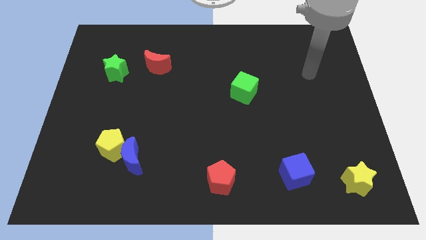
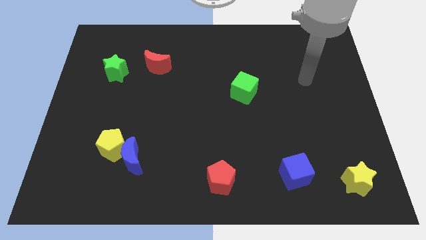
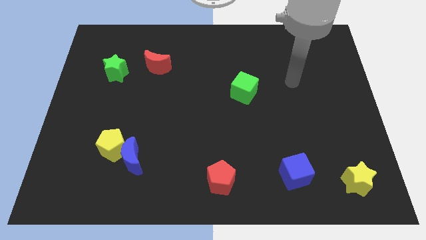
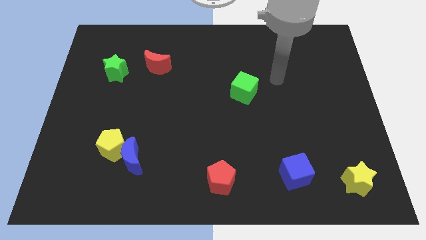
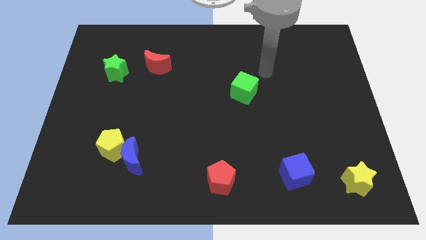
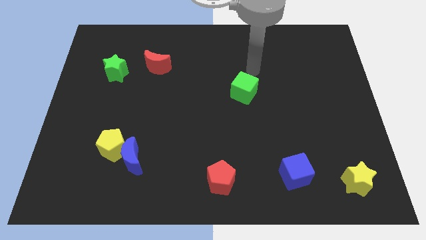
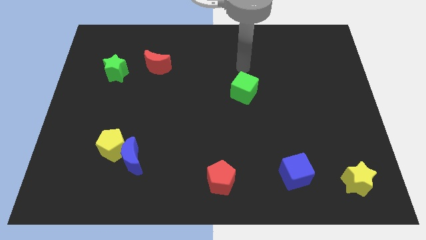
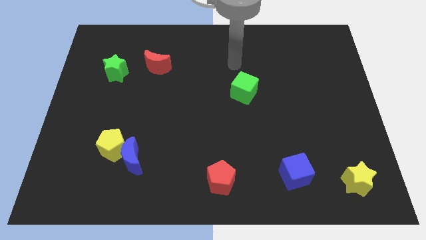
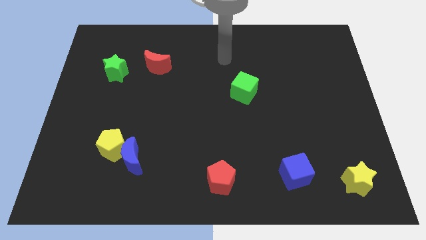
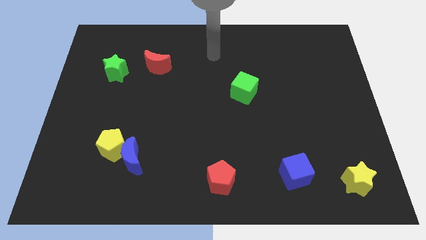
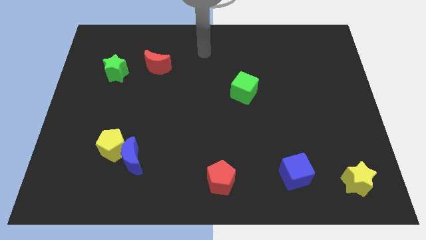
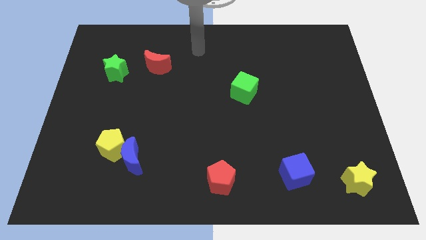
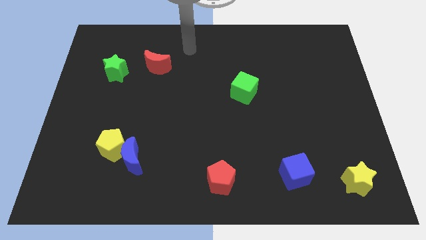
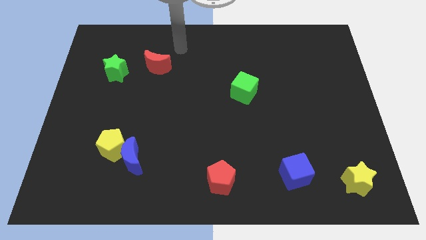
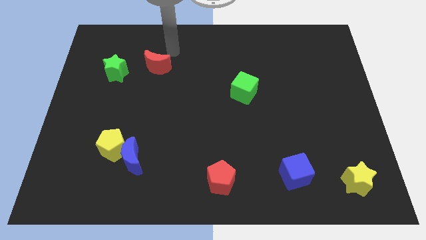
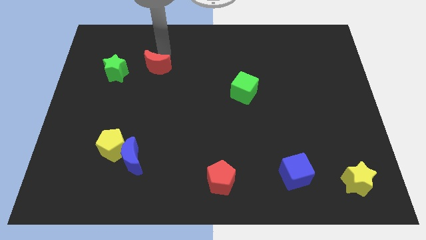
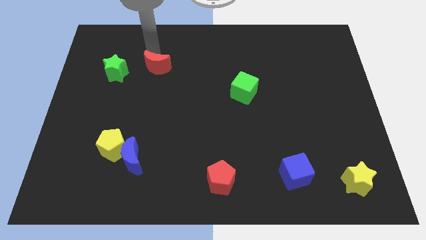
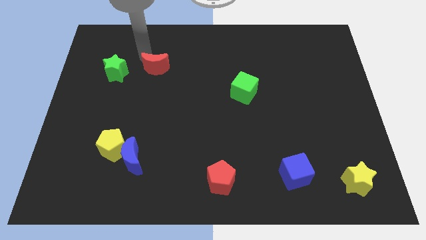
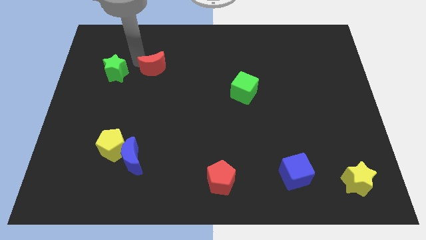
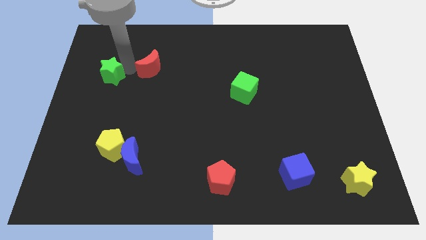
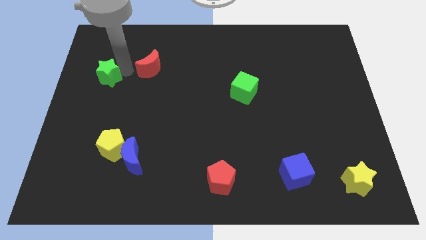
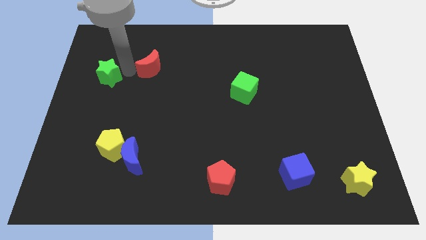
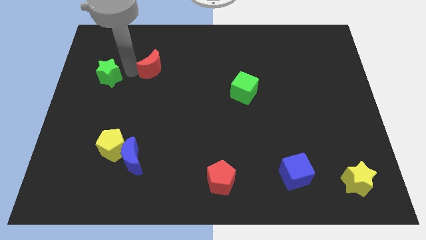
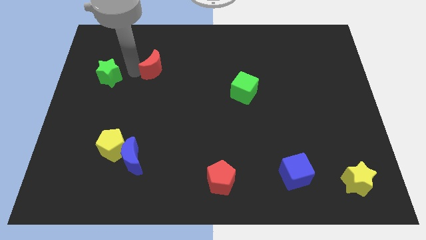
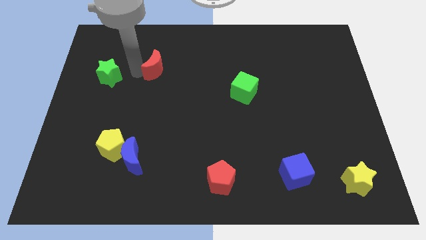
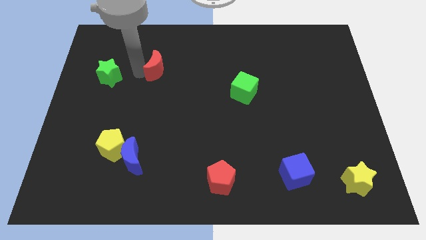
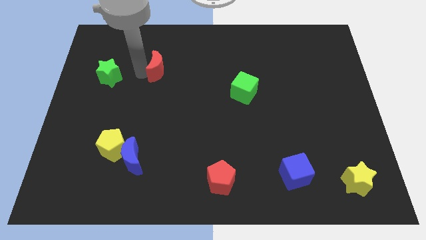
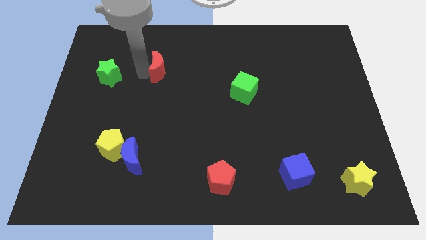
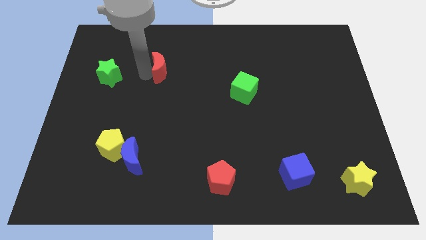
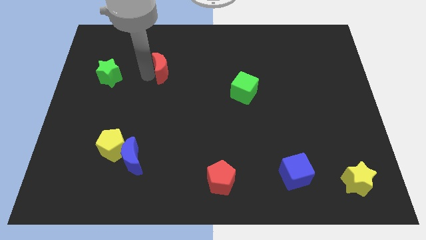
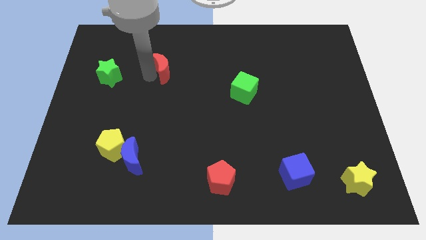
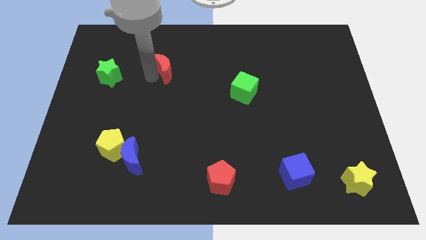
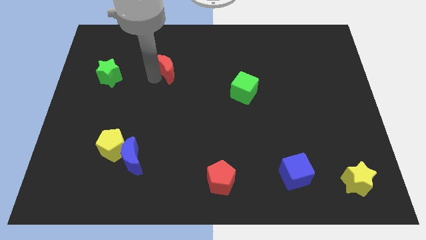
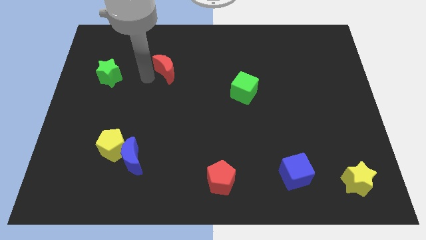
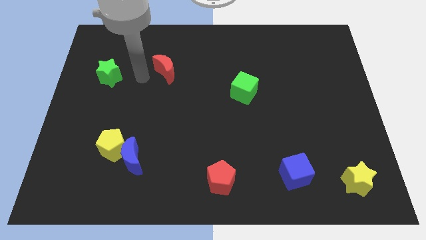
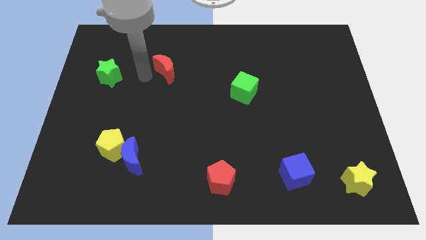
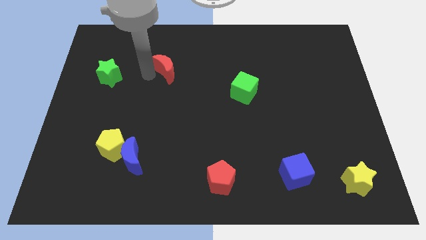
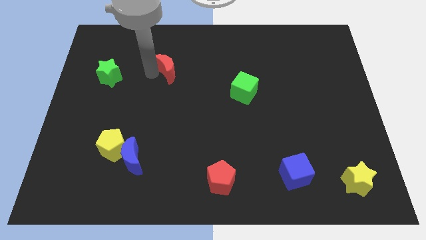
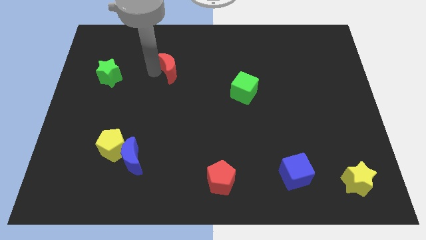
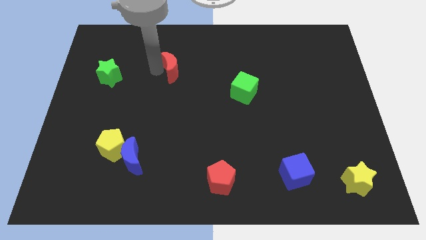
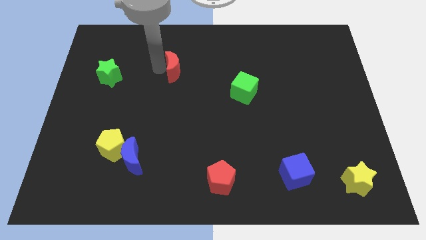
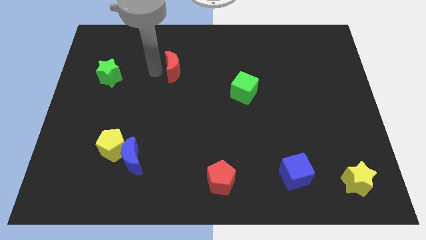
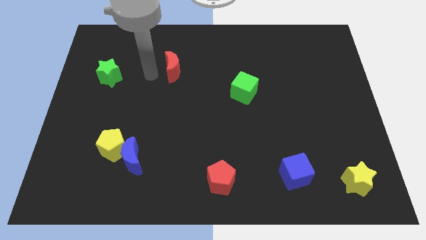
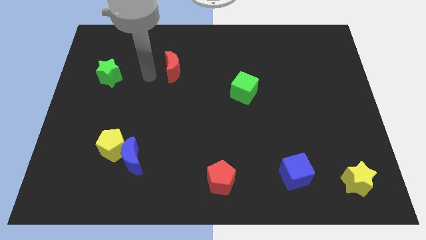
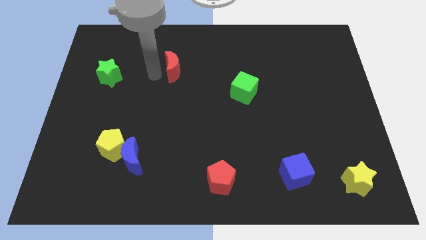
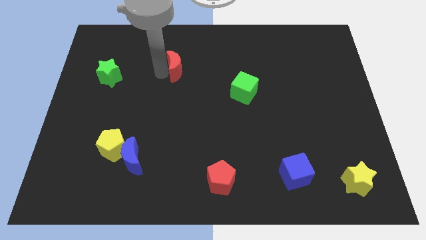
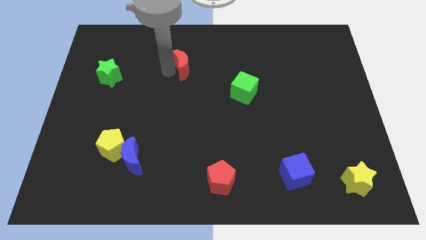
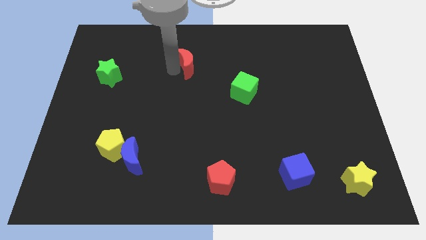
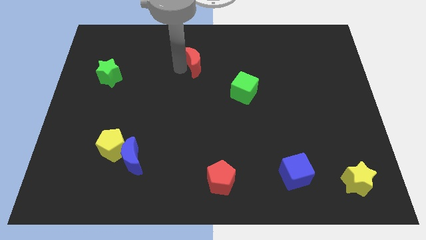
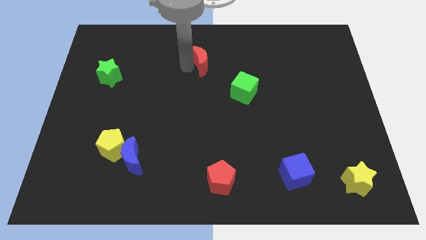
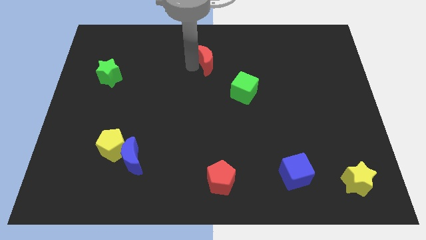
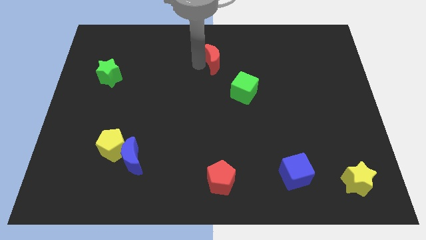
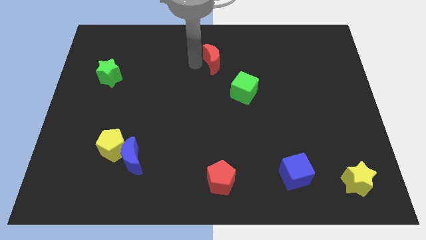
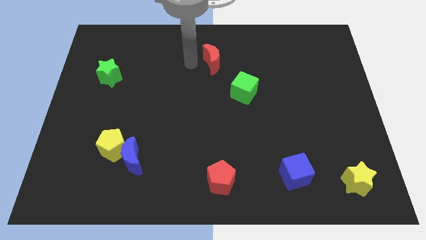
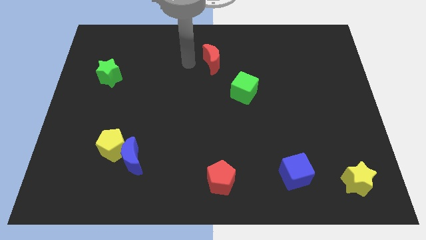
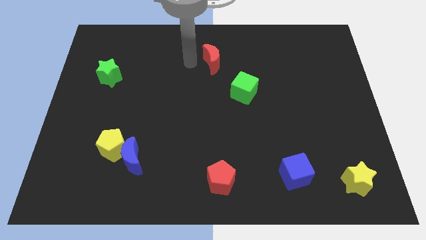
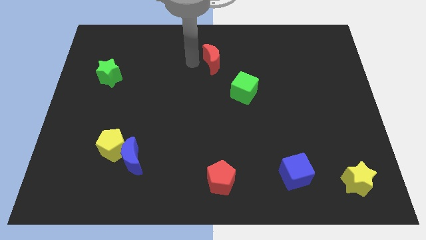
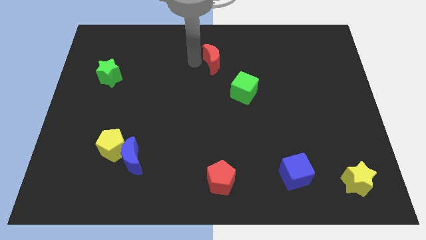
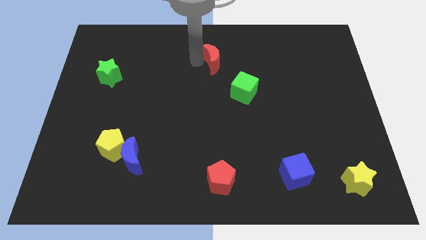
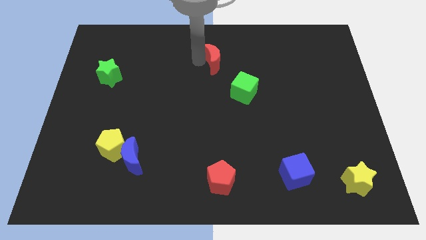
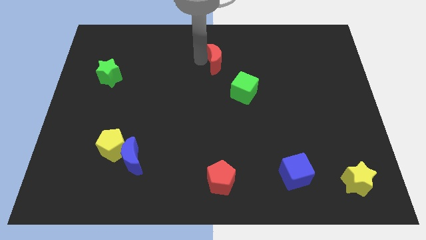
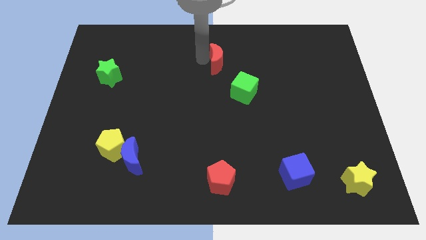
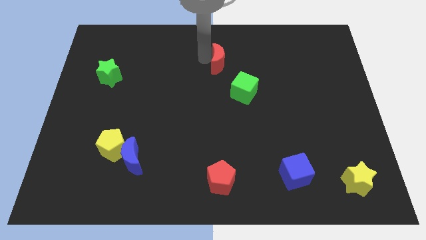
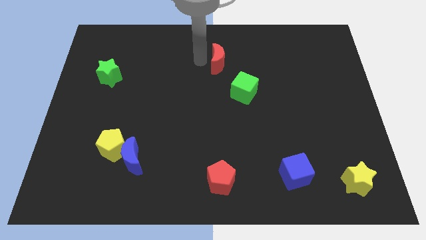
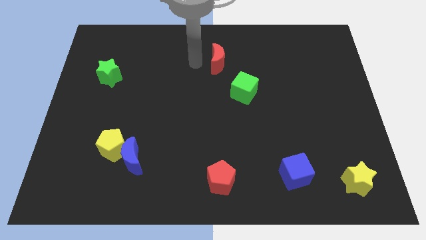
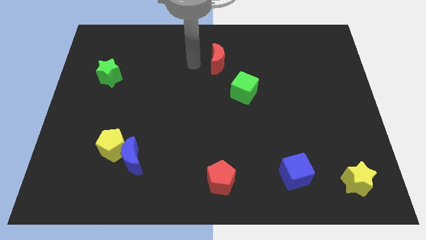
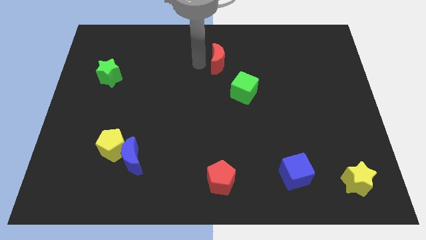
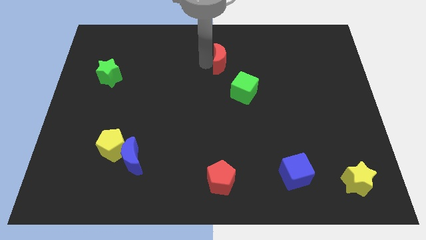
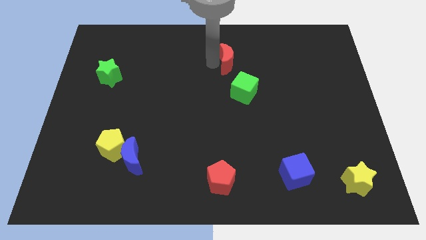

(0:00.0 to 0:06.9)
push the red moon to the top of the green cube
